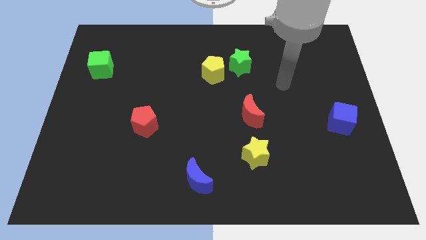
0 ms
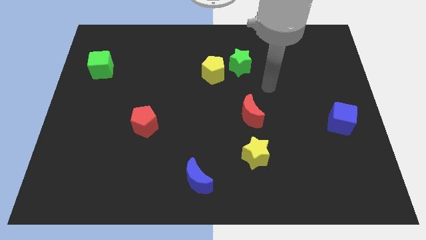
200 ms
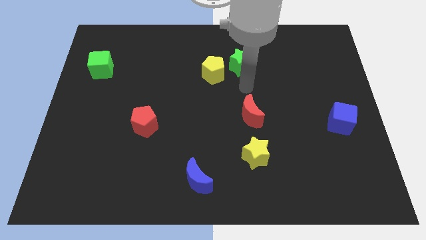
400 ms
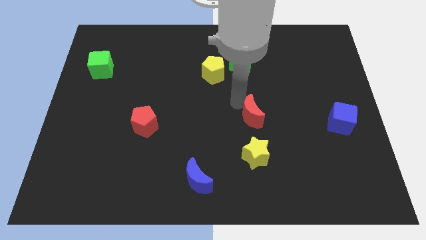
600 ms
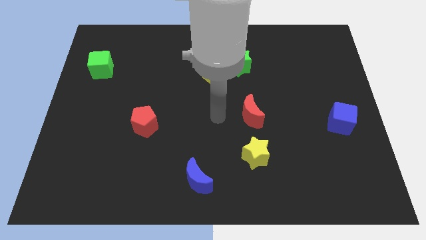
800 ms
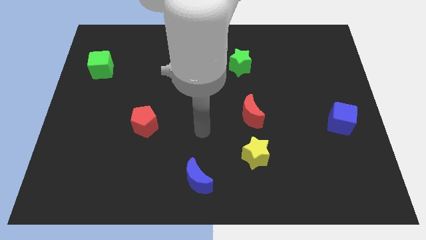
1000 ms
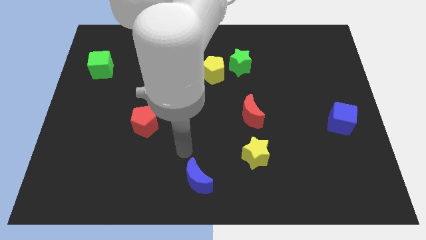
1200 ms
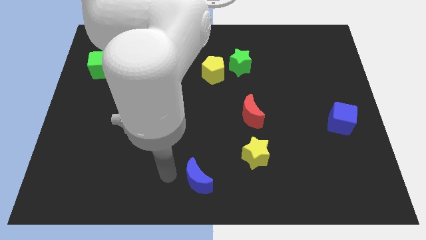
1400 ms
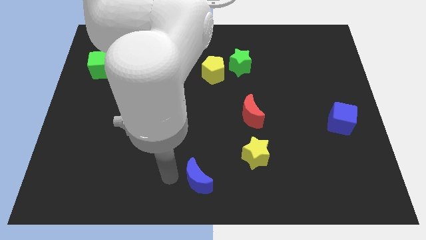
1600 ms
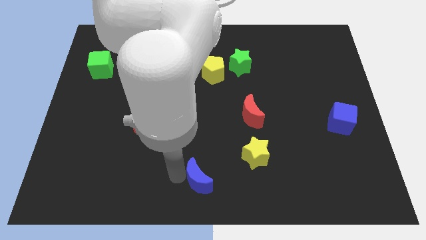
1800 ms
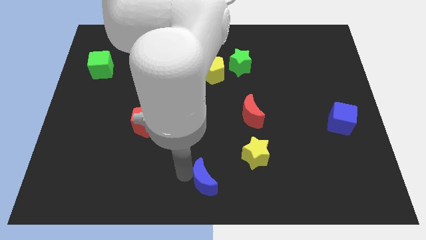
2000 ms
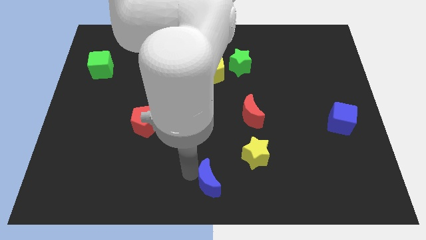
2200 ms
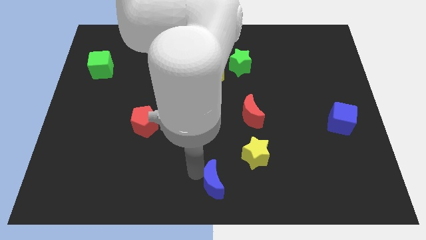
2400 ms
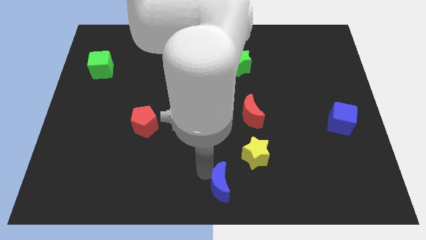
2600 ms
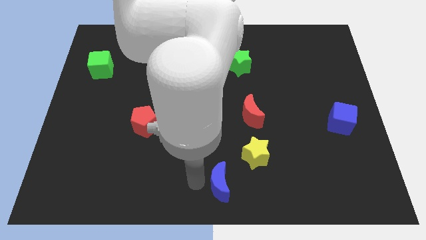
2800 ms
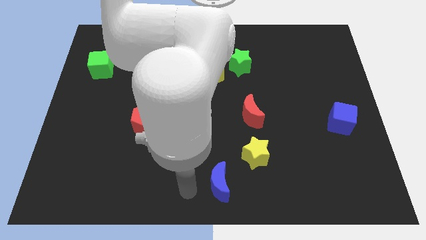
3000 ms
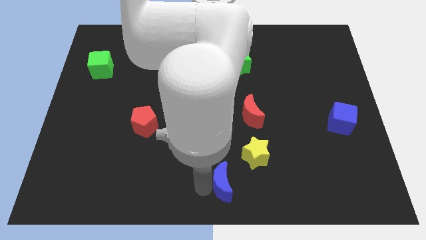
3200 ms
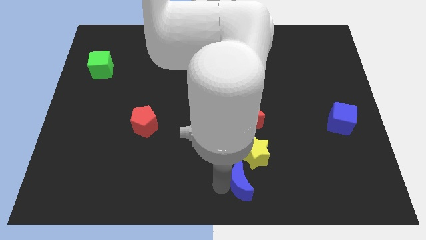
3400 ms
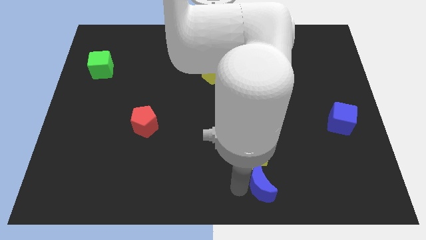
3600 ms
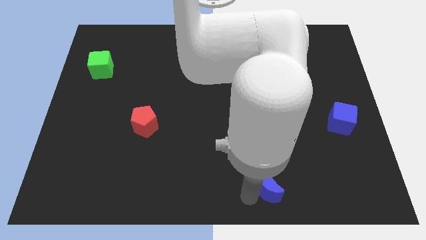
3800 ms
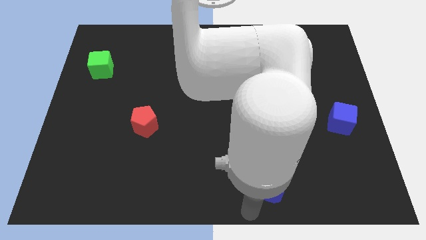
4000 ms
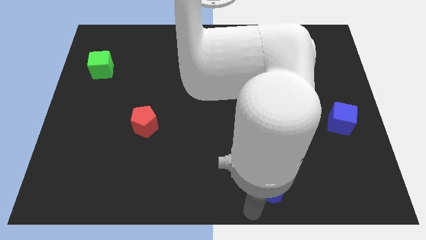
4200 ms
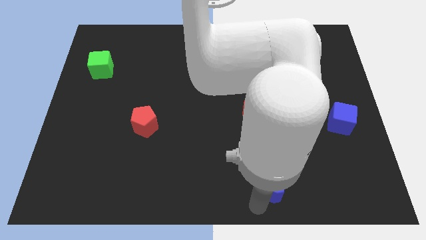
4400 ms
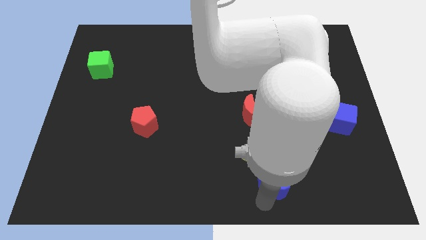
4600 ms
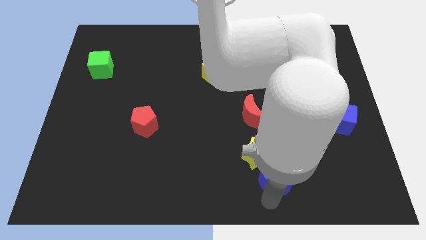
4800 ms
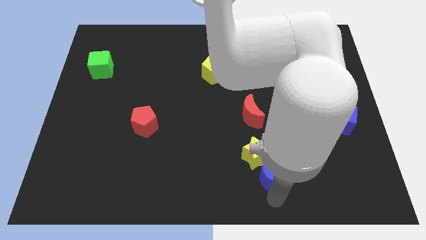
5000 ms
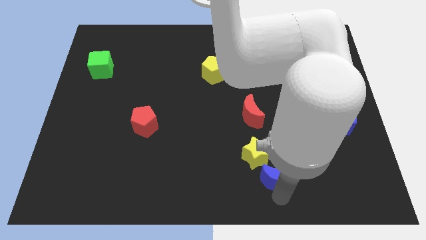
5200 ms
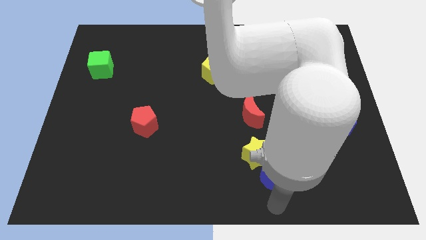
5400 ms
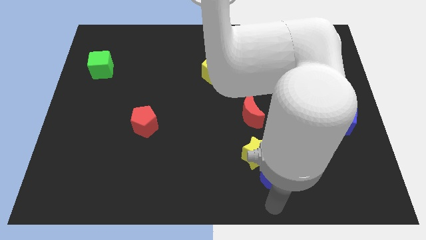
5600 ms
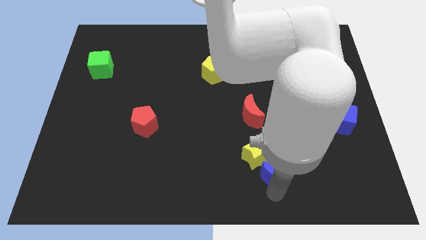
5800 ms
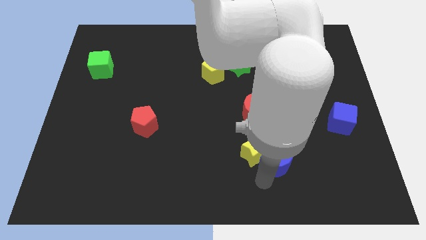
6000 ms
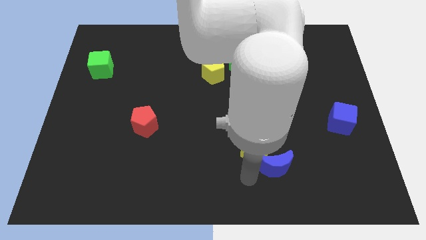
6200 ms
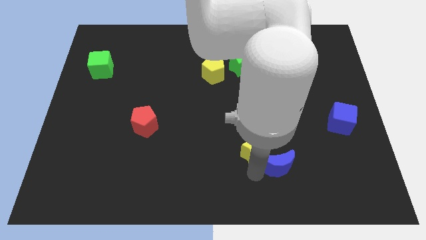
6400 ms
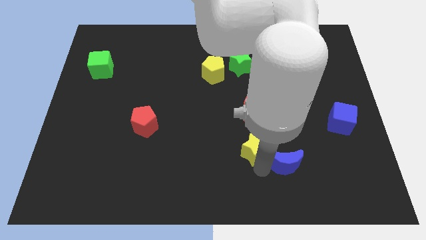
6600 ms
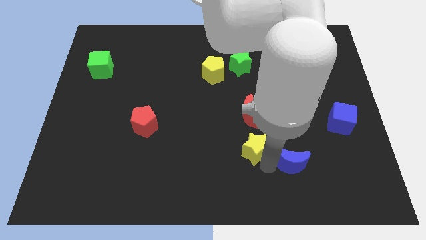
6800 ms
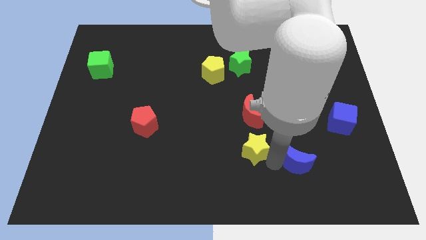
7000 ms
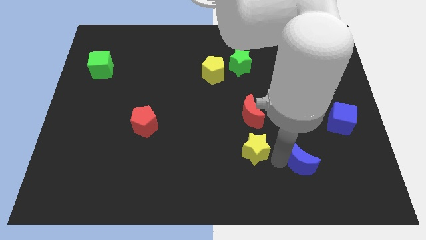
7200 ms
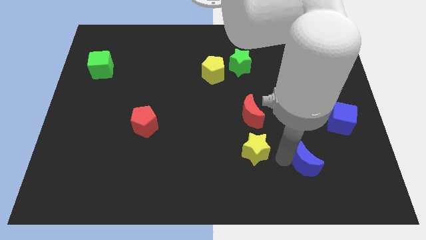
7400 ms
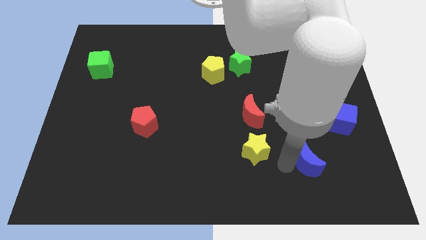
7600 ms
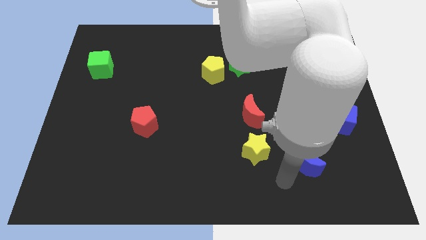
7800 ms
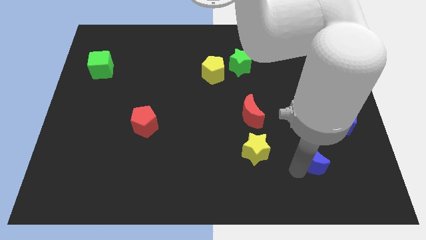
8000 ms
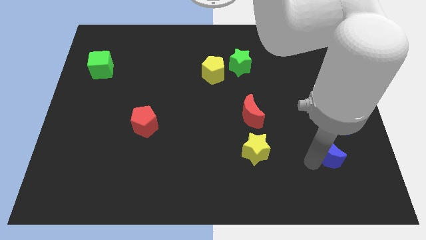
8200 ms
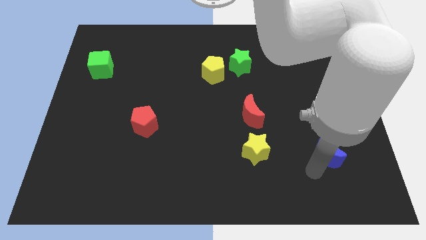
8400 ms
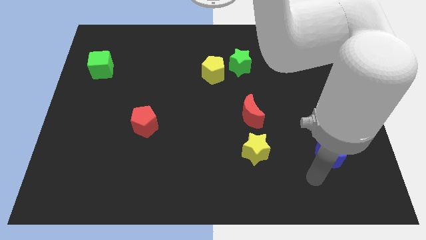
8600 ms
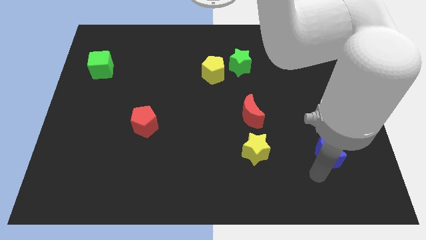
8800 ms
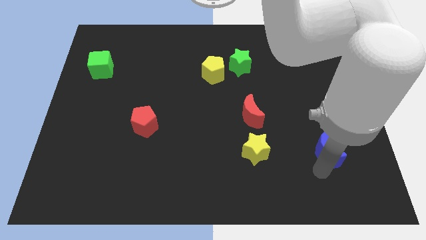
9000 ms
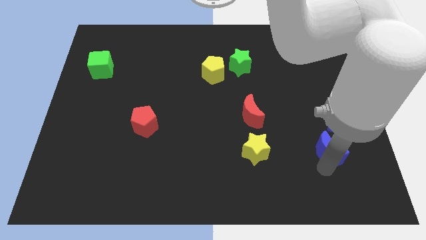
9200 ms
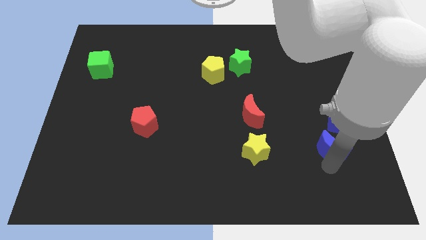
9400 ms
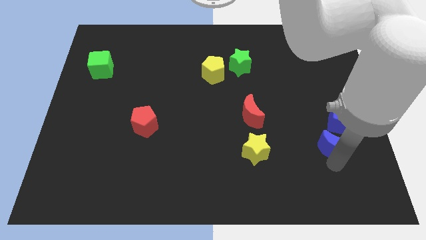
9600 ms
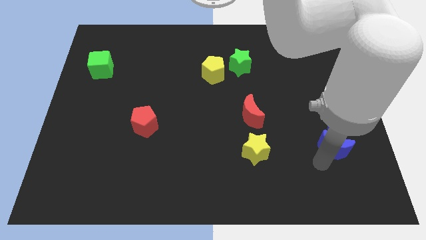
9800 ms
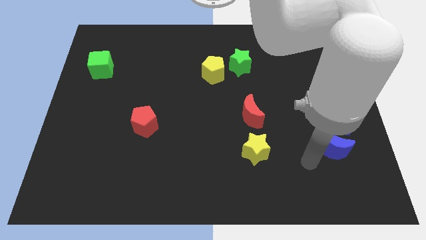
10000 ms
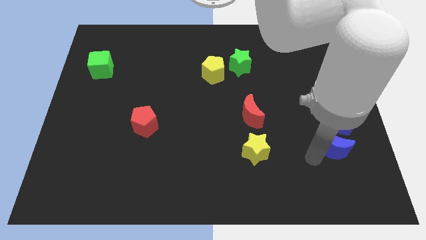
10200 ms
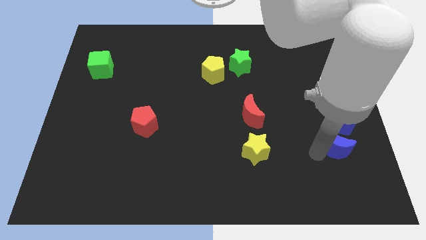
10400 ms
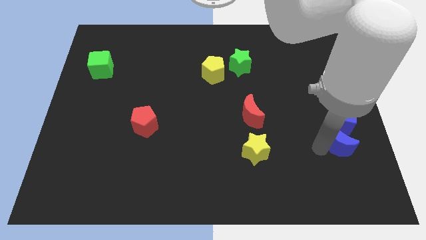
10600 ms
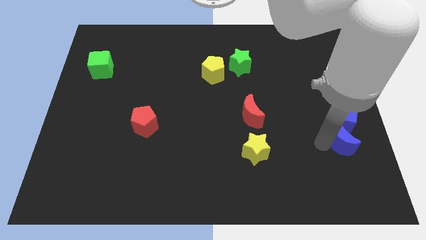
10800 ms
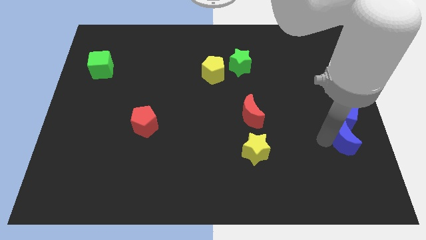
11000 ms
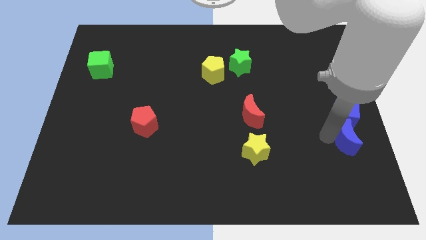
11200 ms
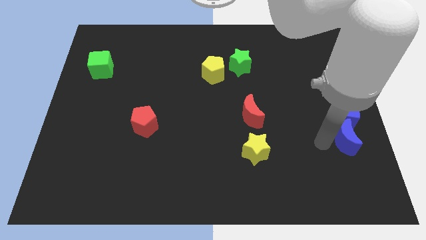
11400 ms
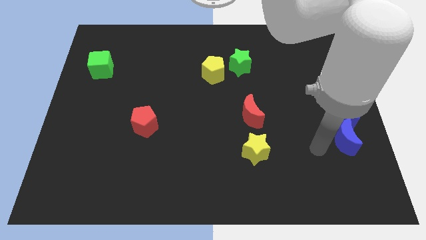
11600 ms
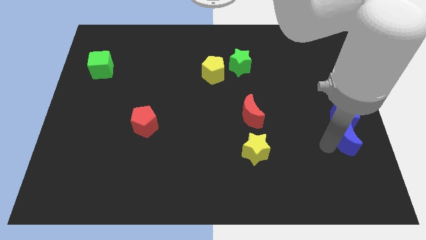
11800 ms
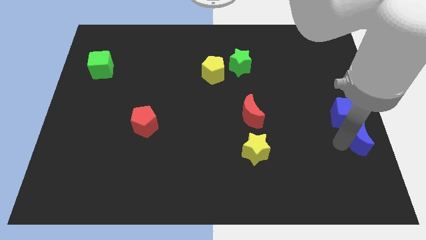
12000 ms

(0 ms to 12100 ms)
put the blue moon to the center right
